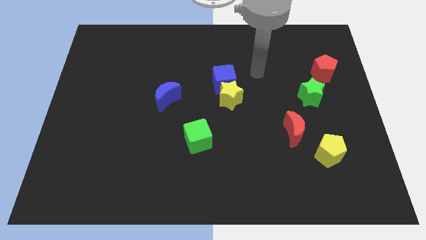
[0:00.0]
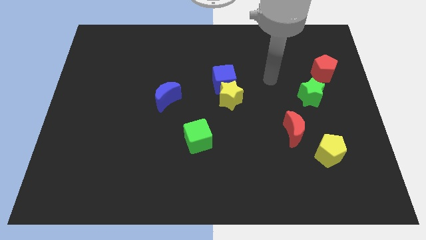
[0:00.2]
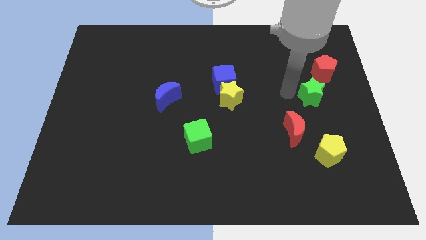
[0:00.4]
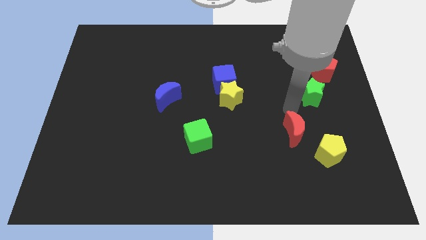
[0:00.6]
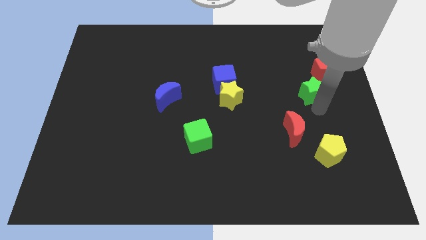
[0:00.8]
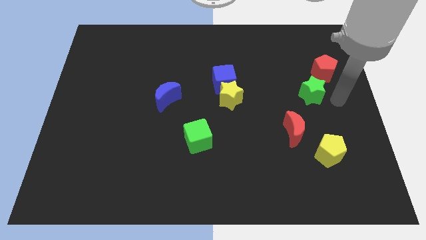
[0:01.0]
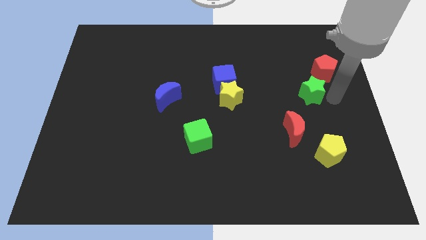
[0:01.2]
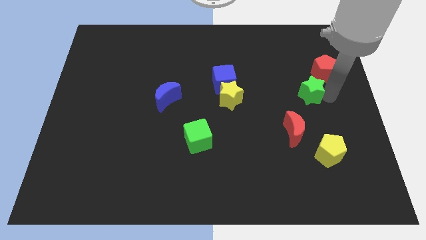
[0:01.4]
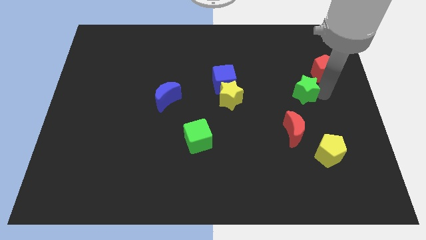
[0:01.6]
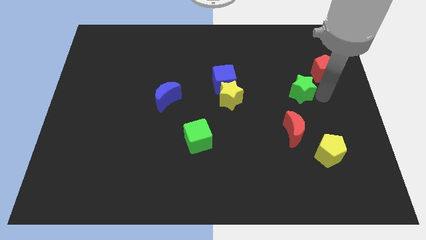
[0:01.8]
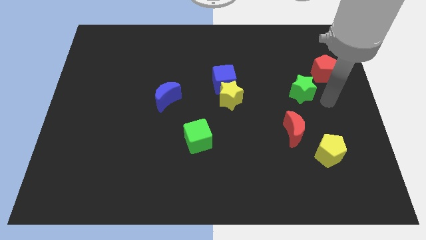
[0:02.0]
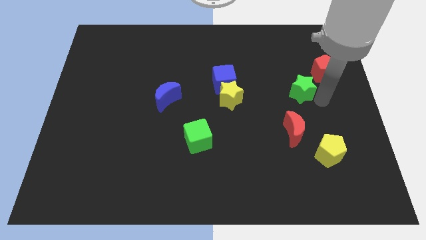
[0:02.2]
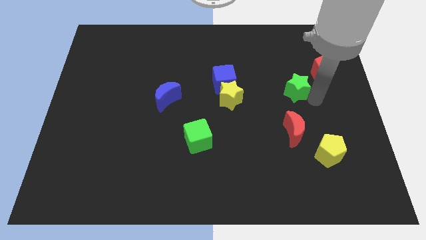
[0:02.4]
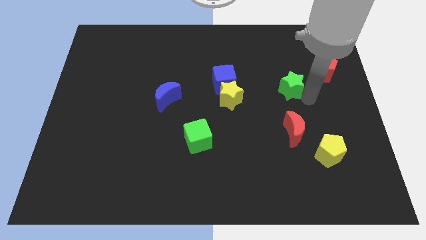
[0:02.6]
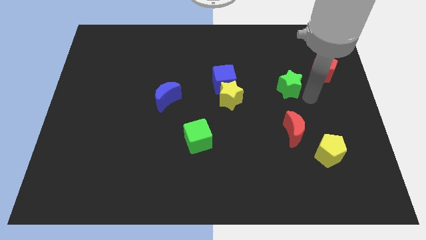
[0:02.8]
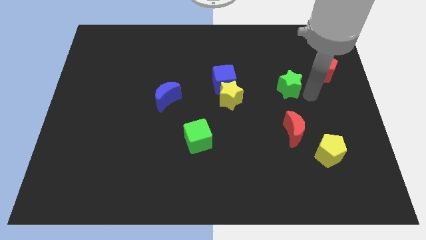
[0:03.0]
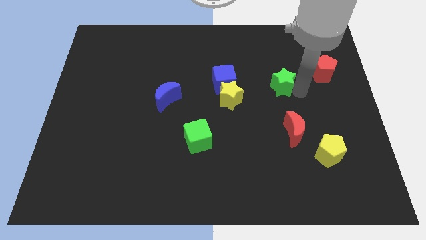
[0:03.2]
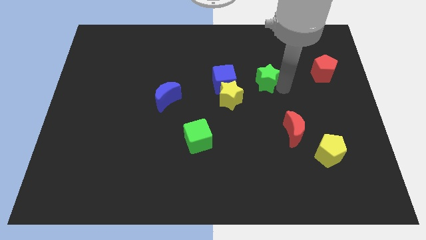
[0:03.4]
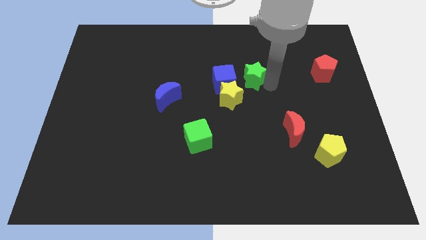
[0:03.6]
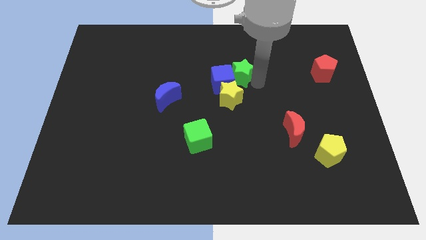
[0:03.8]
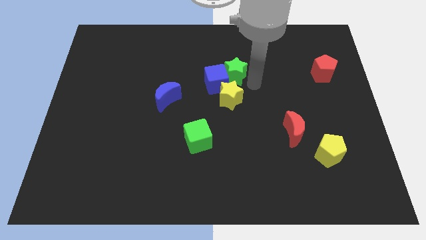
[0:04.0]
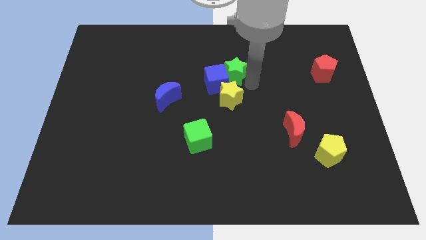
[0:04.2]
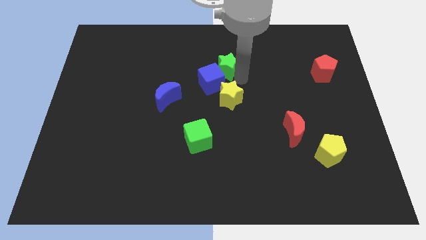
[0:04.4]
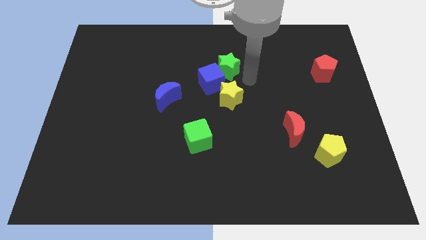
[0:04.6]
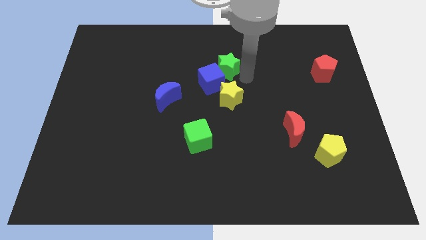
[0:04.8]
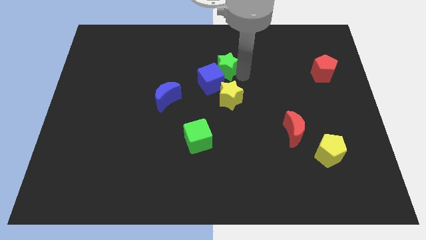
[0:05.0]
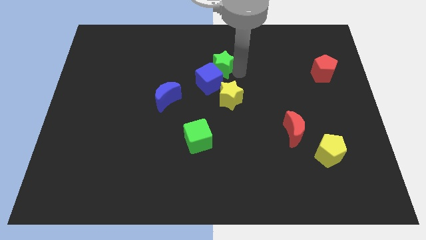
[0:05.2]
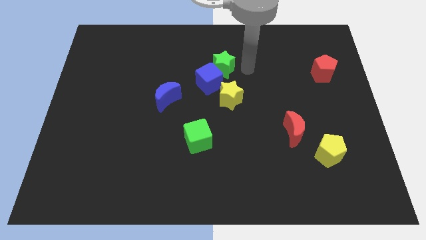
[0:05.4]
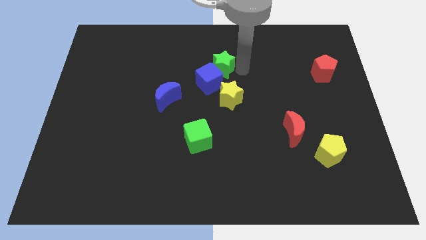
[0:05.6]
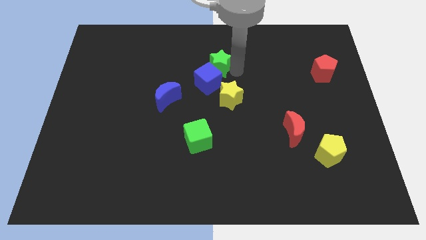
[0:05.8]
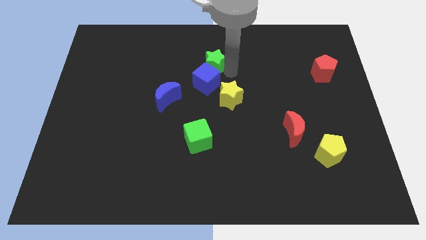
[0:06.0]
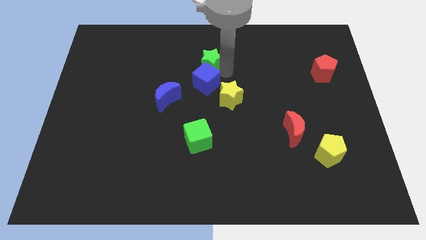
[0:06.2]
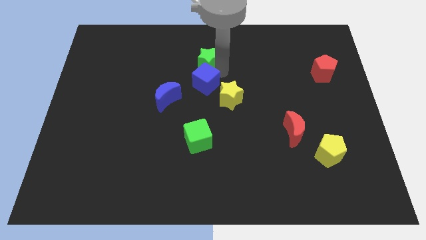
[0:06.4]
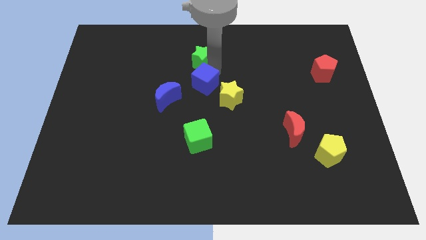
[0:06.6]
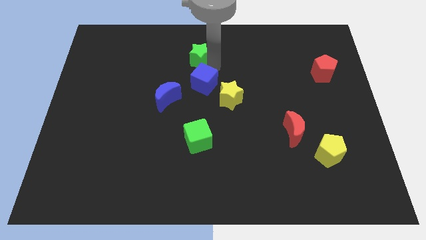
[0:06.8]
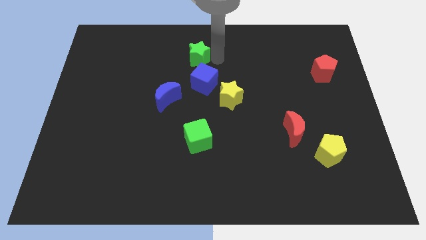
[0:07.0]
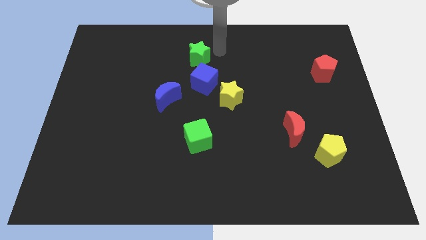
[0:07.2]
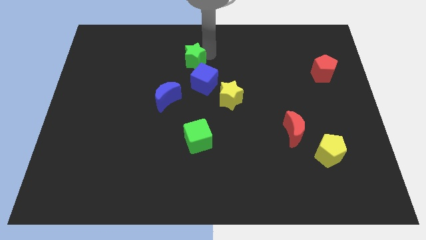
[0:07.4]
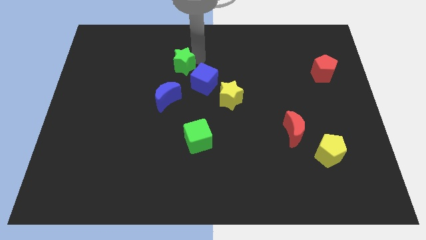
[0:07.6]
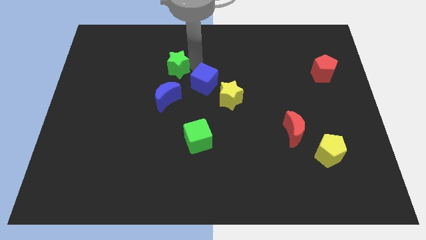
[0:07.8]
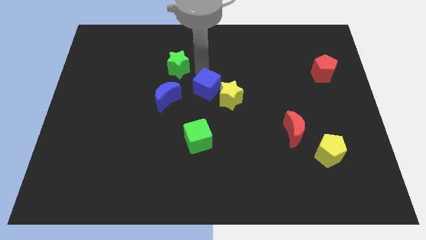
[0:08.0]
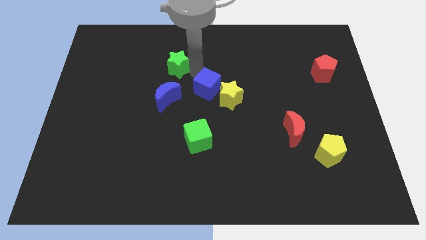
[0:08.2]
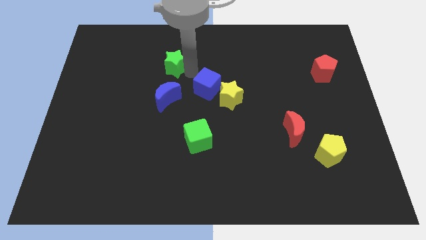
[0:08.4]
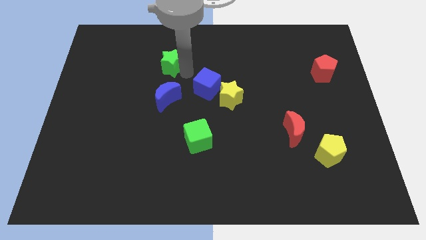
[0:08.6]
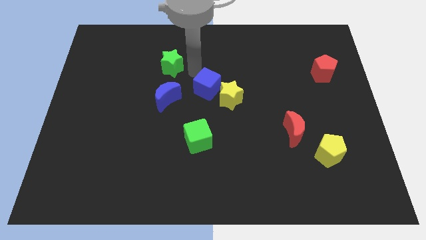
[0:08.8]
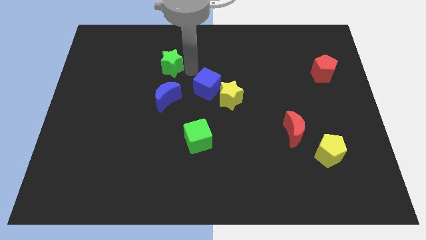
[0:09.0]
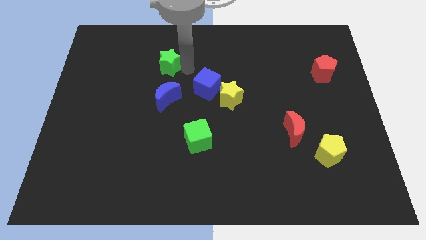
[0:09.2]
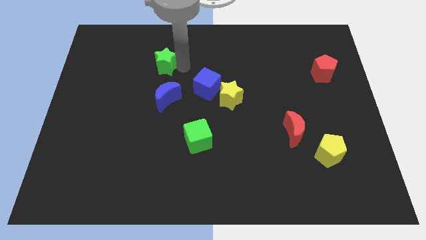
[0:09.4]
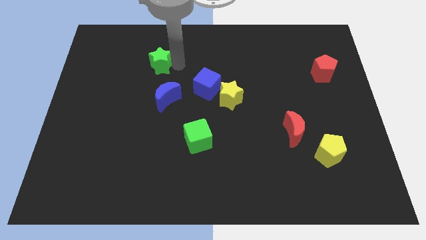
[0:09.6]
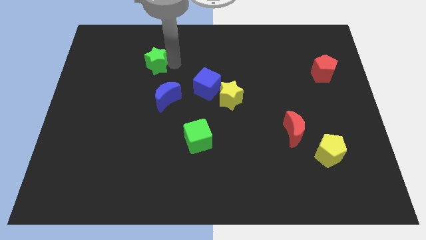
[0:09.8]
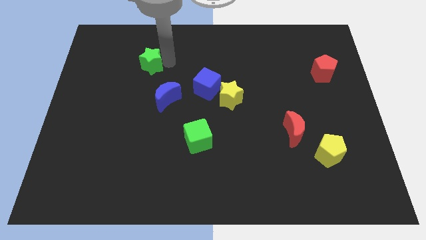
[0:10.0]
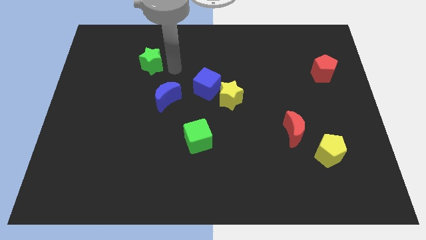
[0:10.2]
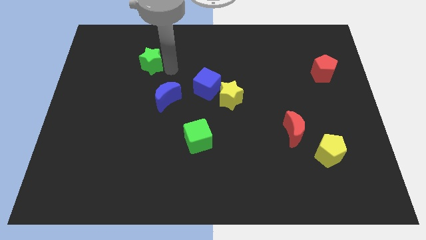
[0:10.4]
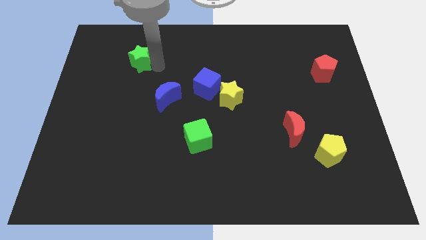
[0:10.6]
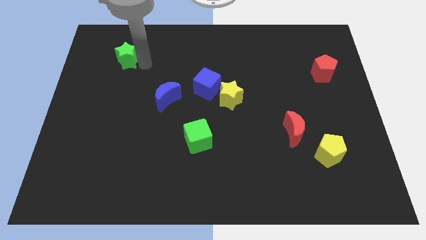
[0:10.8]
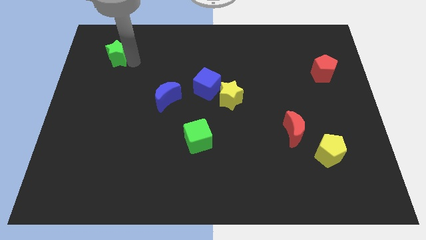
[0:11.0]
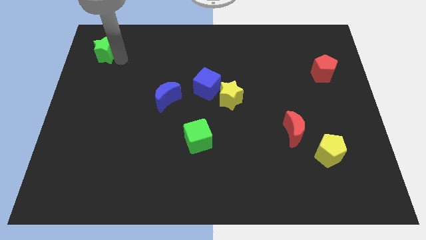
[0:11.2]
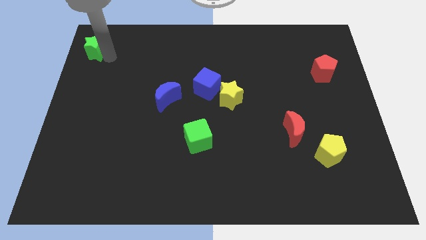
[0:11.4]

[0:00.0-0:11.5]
put the green star to the top left of the board

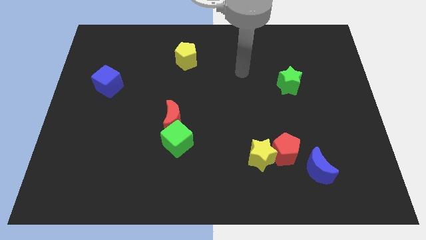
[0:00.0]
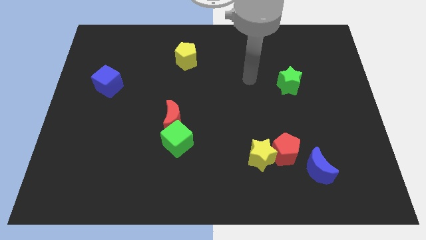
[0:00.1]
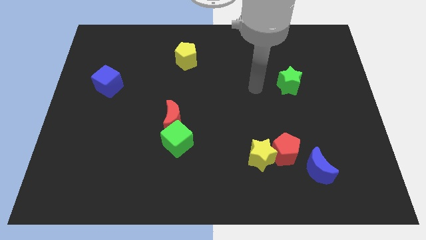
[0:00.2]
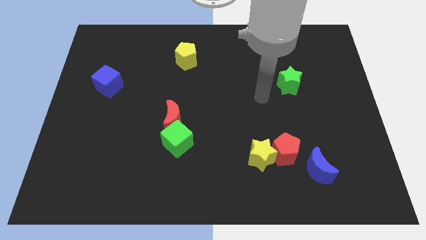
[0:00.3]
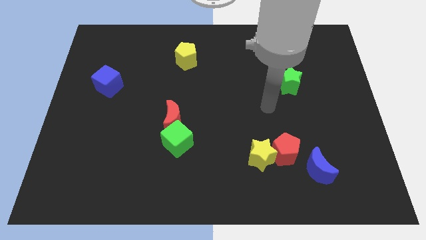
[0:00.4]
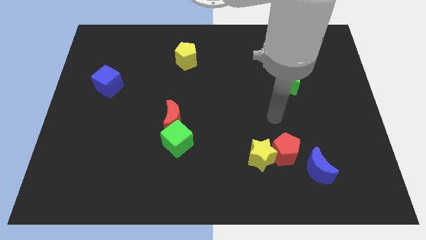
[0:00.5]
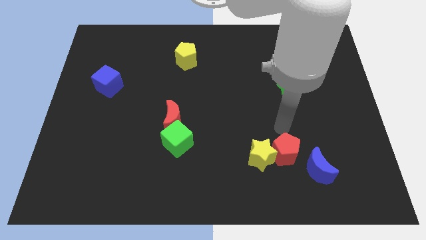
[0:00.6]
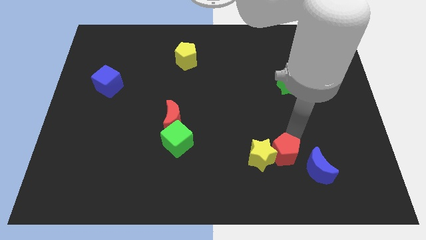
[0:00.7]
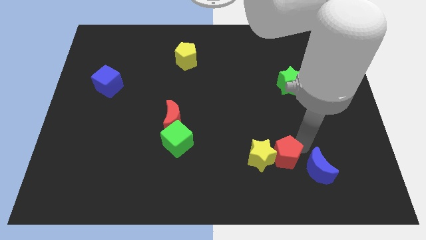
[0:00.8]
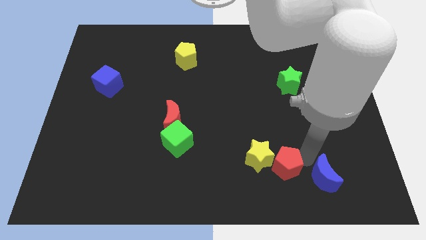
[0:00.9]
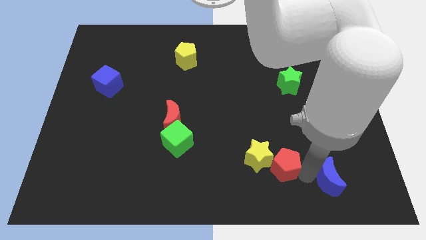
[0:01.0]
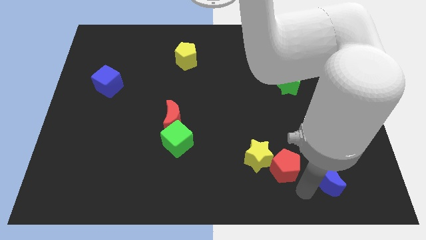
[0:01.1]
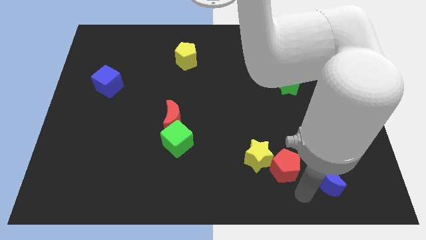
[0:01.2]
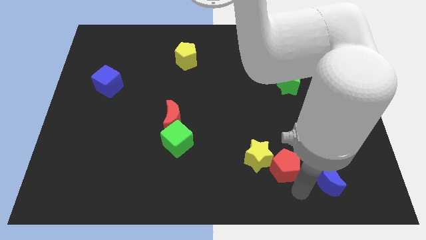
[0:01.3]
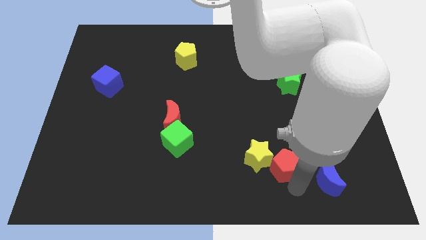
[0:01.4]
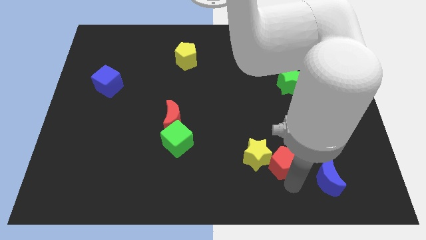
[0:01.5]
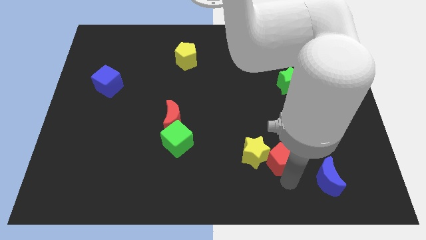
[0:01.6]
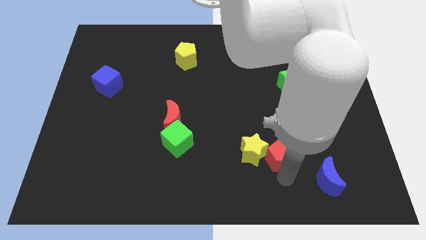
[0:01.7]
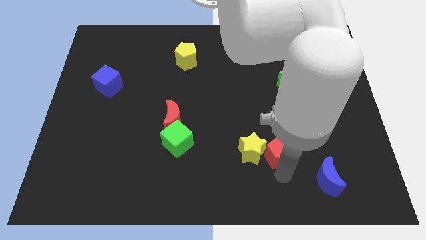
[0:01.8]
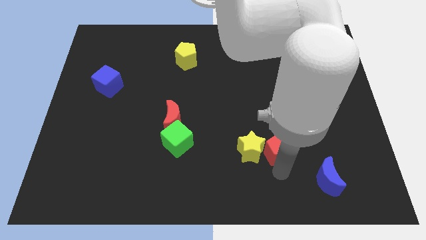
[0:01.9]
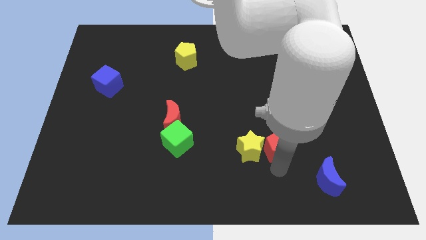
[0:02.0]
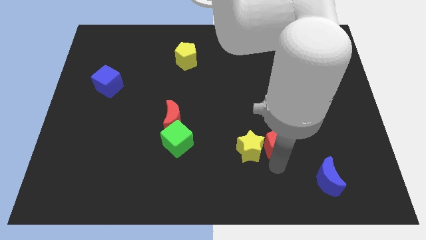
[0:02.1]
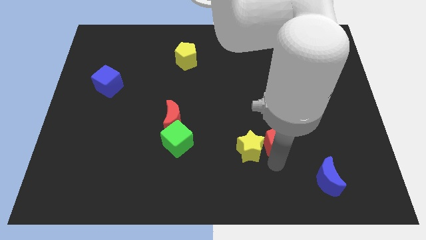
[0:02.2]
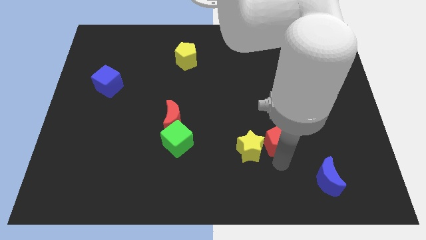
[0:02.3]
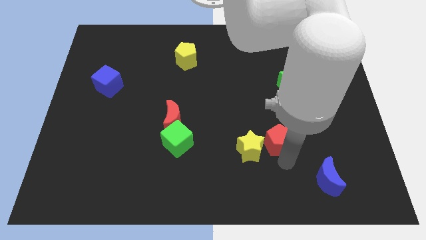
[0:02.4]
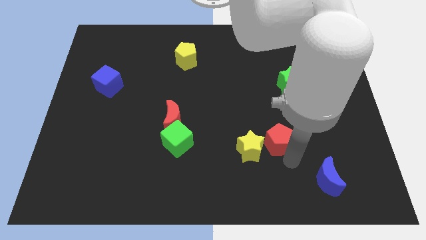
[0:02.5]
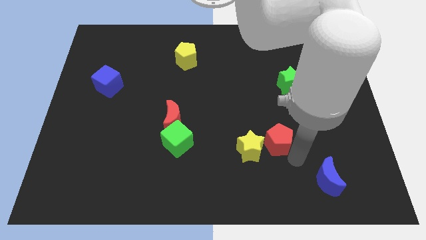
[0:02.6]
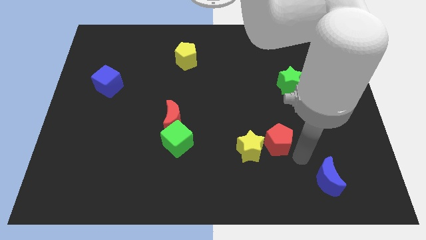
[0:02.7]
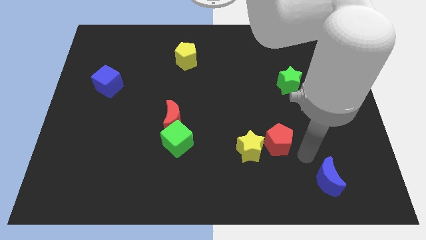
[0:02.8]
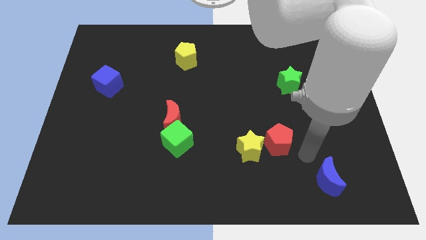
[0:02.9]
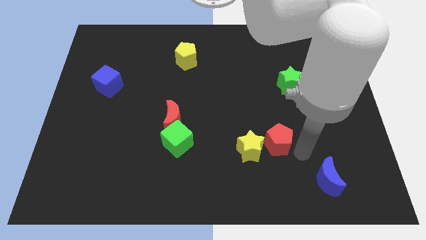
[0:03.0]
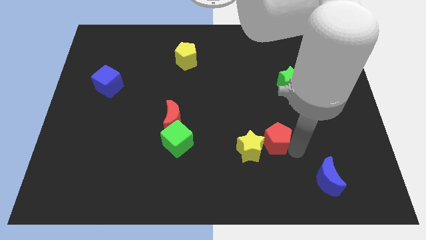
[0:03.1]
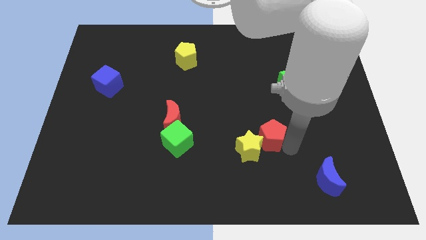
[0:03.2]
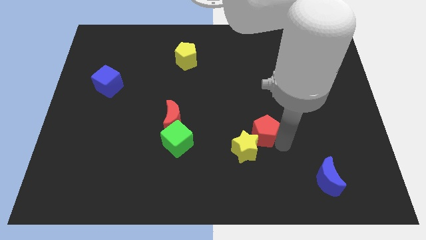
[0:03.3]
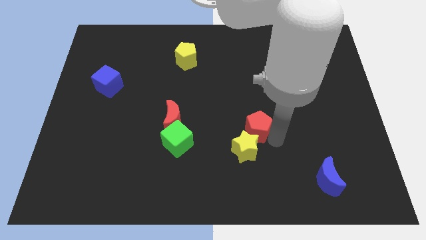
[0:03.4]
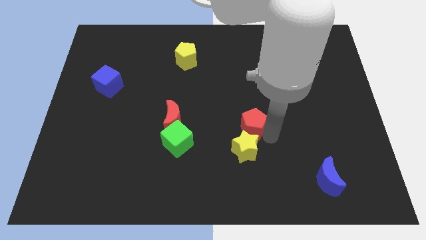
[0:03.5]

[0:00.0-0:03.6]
slide the red pentagon to the center
